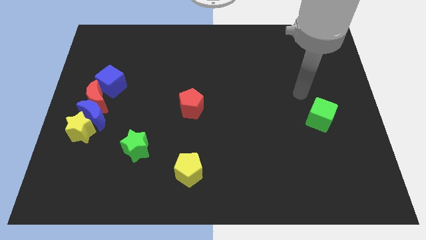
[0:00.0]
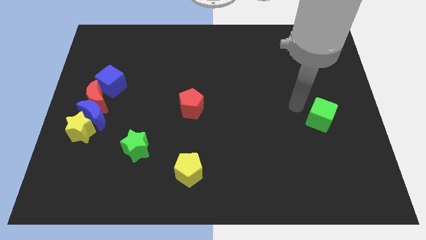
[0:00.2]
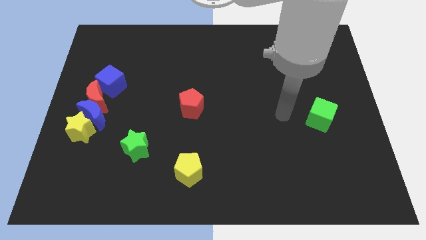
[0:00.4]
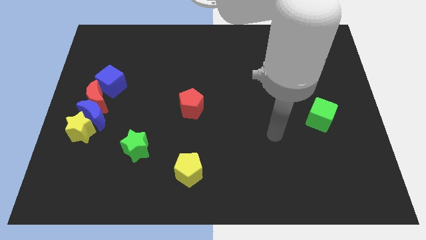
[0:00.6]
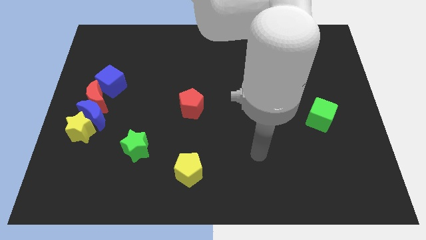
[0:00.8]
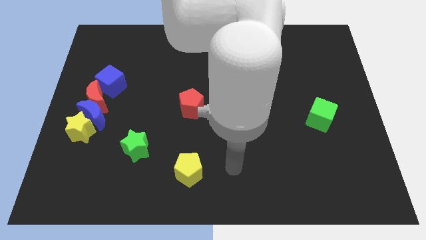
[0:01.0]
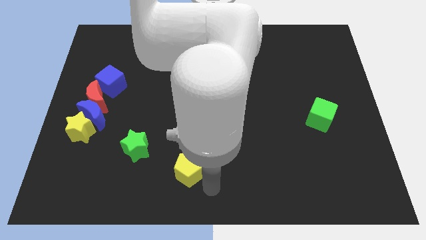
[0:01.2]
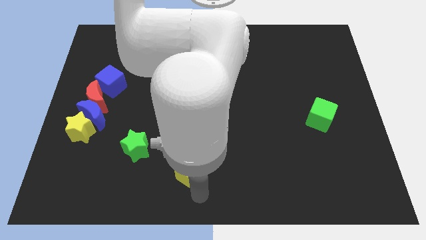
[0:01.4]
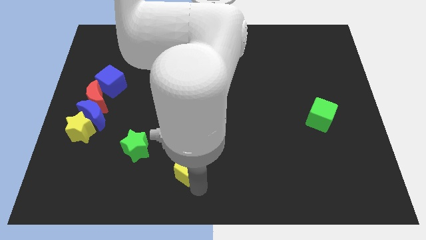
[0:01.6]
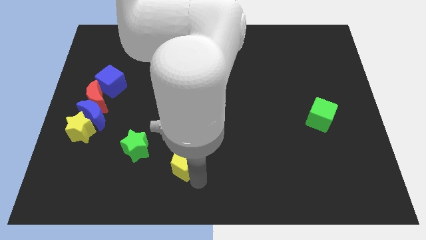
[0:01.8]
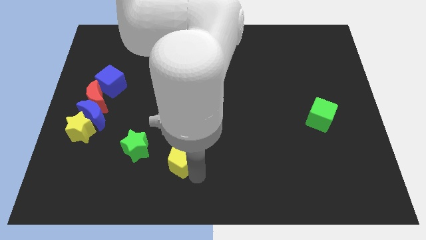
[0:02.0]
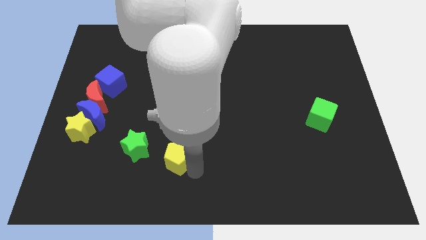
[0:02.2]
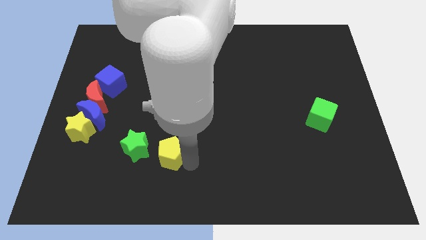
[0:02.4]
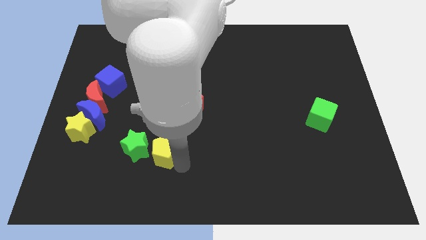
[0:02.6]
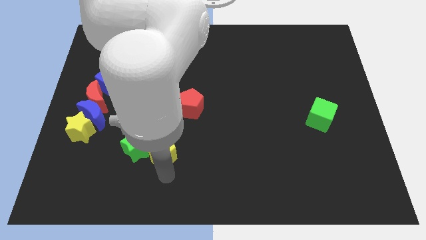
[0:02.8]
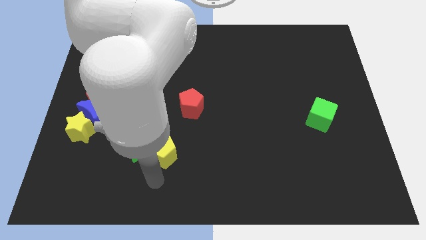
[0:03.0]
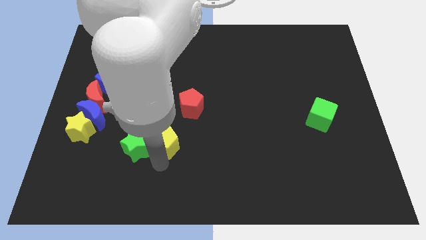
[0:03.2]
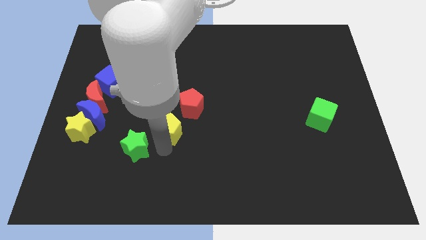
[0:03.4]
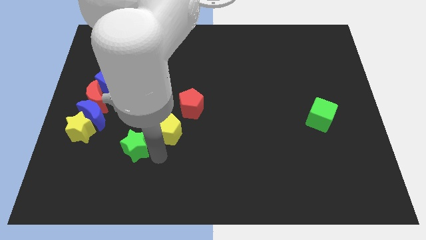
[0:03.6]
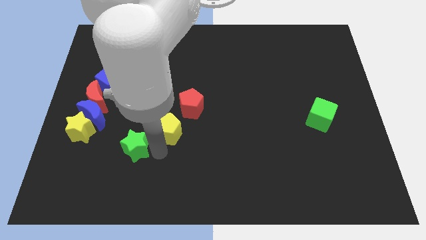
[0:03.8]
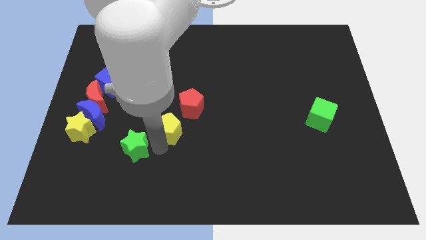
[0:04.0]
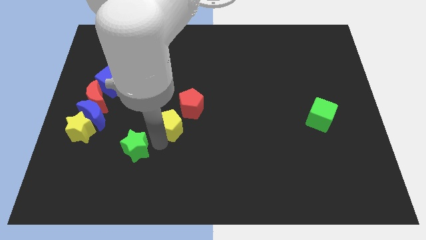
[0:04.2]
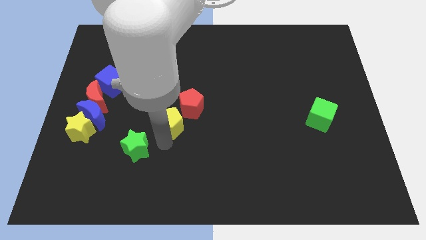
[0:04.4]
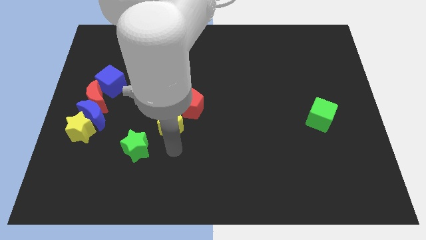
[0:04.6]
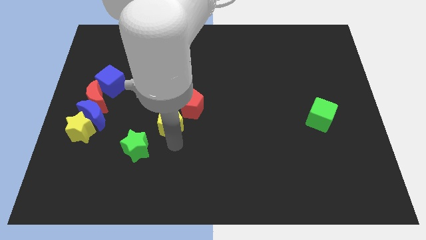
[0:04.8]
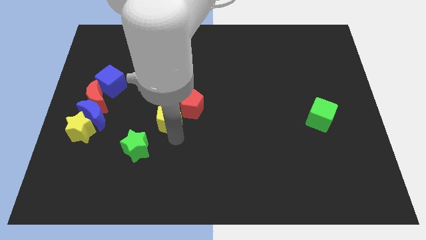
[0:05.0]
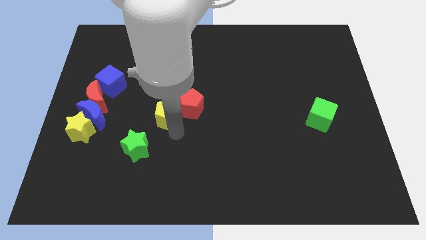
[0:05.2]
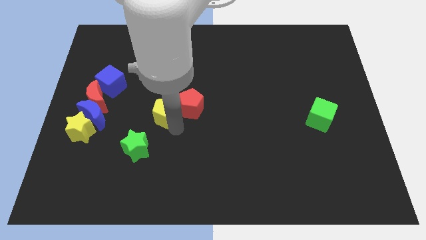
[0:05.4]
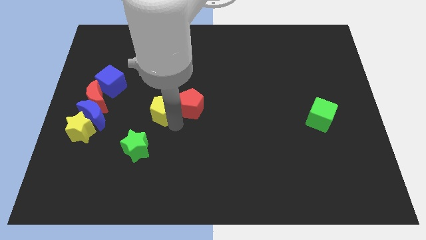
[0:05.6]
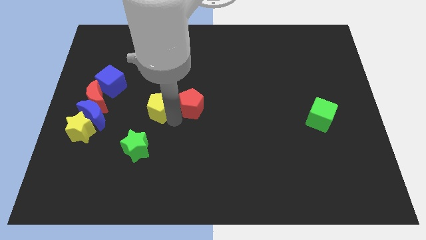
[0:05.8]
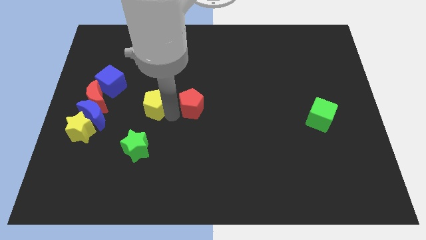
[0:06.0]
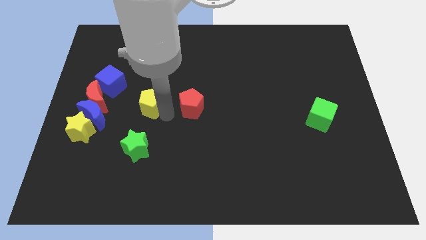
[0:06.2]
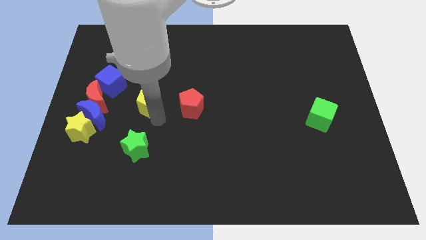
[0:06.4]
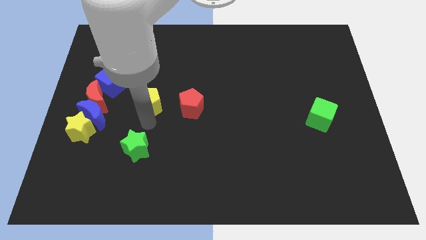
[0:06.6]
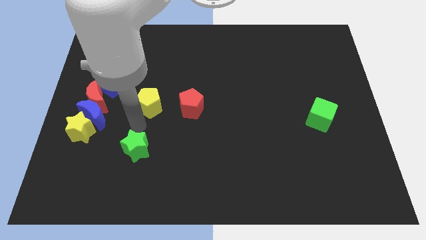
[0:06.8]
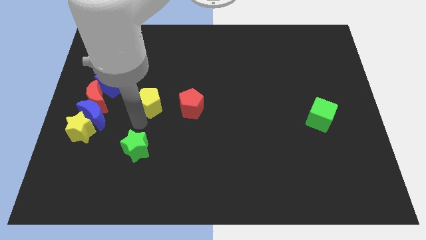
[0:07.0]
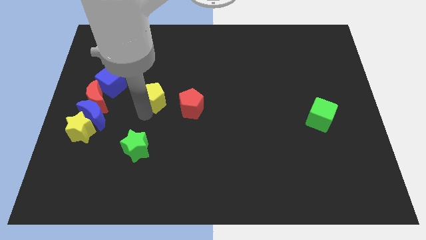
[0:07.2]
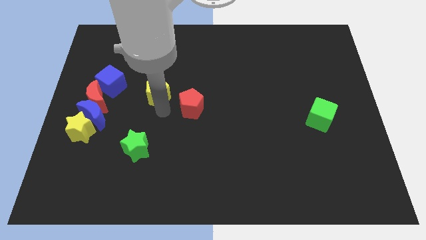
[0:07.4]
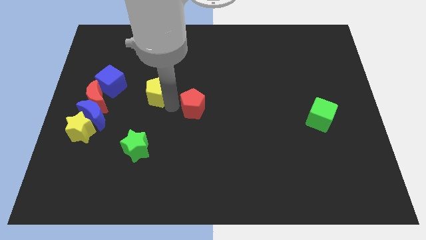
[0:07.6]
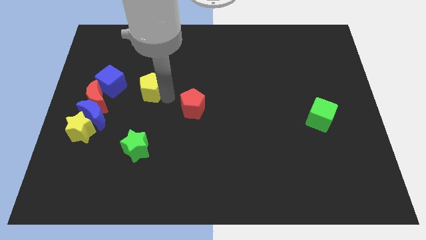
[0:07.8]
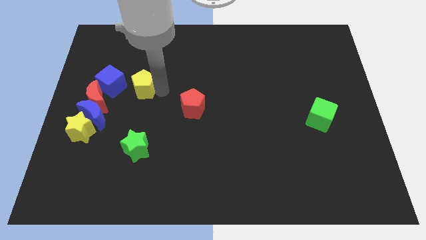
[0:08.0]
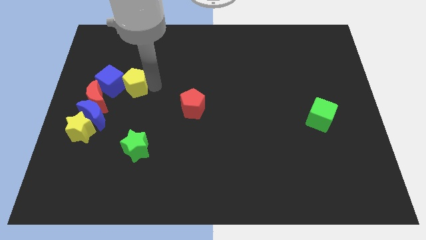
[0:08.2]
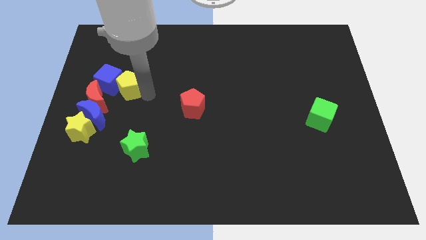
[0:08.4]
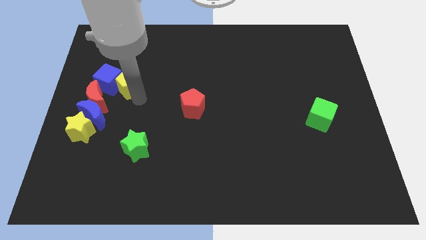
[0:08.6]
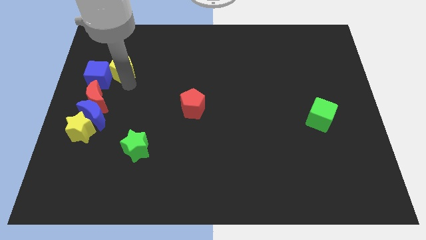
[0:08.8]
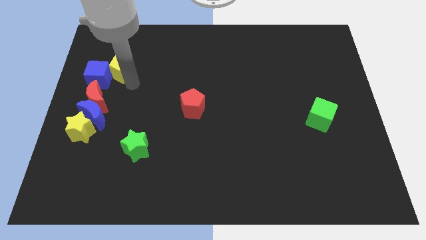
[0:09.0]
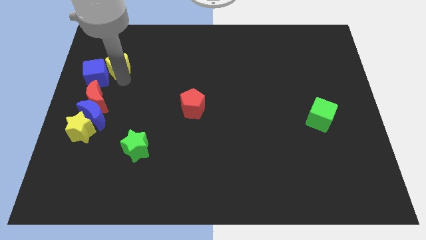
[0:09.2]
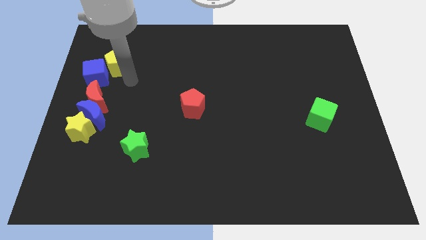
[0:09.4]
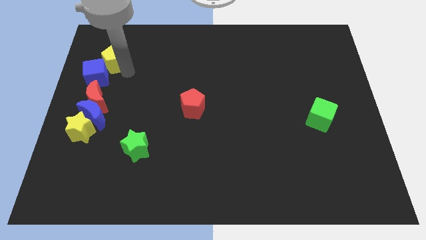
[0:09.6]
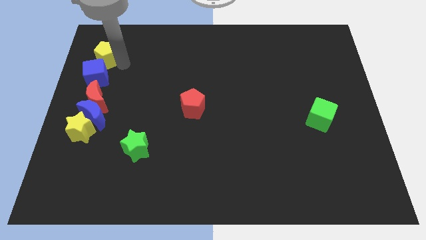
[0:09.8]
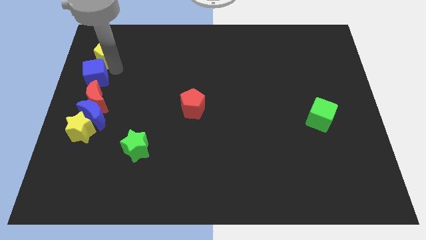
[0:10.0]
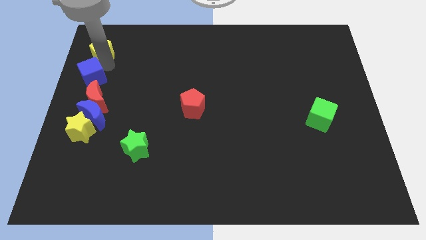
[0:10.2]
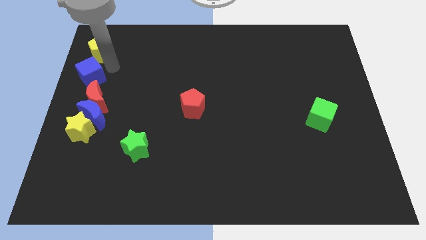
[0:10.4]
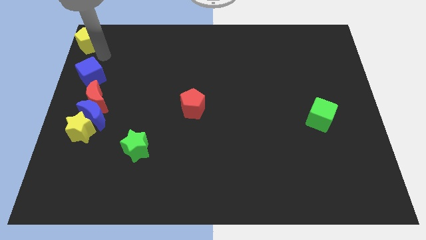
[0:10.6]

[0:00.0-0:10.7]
slide the yellow pentagon to the top left

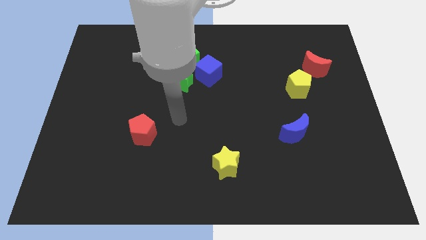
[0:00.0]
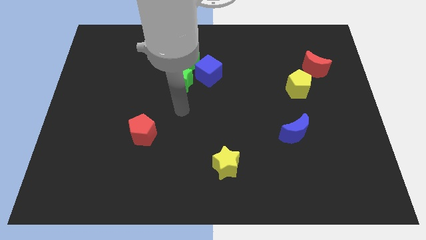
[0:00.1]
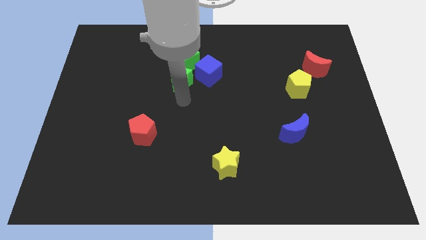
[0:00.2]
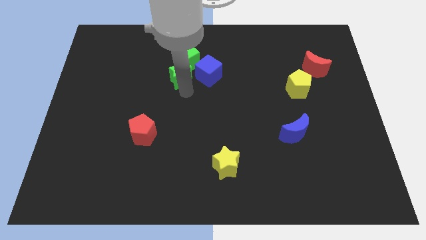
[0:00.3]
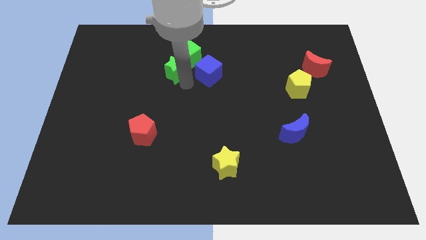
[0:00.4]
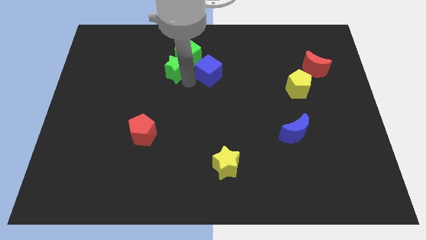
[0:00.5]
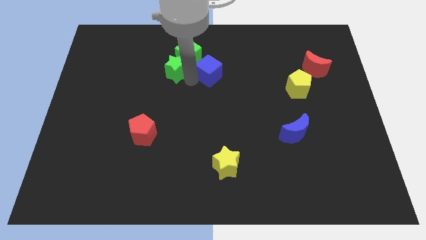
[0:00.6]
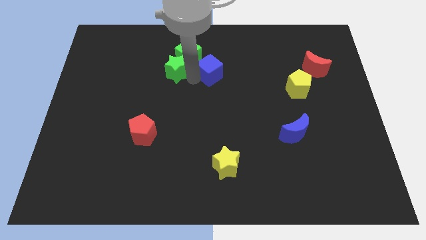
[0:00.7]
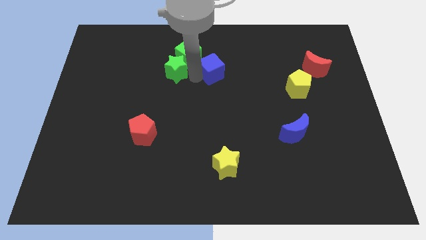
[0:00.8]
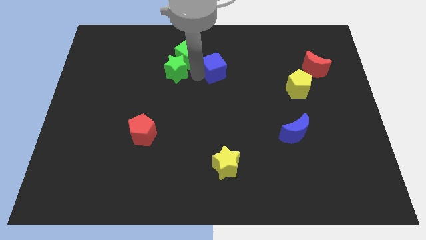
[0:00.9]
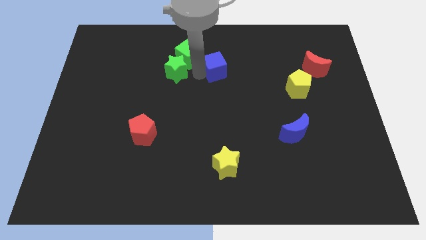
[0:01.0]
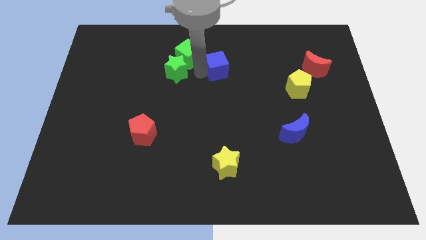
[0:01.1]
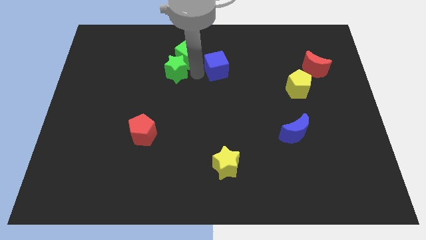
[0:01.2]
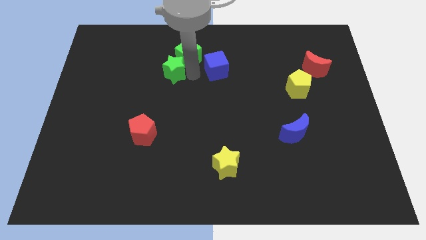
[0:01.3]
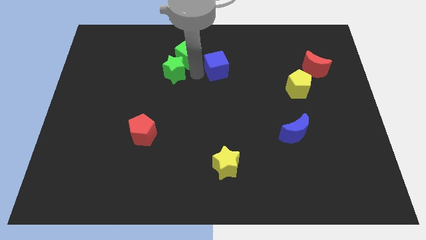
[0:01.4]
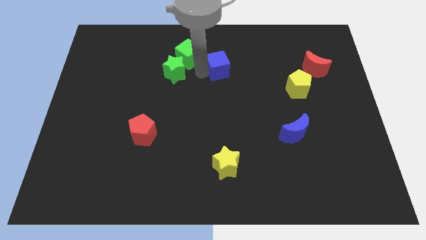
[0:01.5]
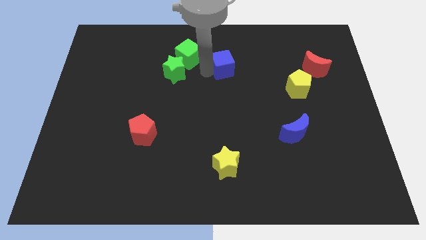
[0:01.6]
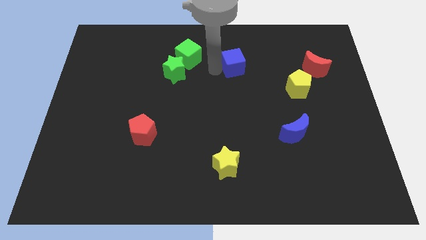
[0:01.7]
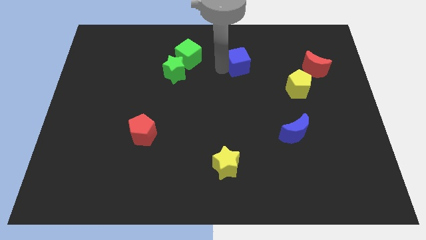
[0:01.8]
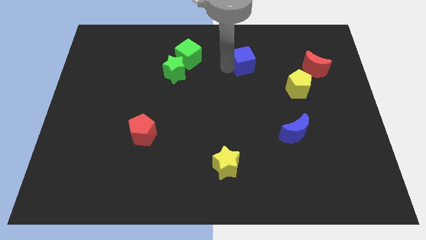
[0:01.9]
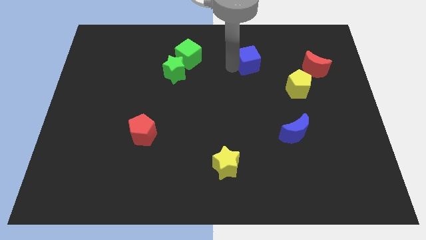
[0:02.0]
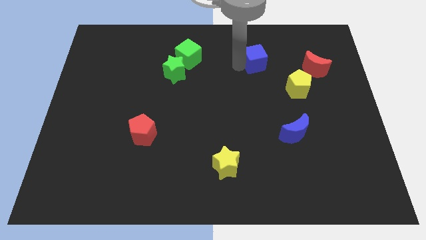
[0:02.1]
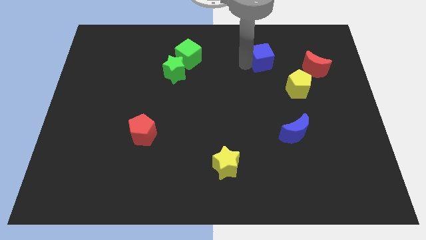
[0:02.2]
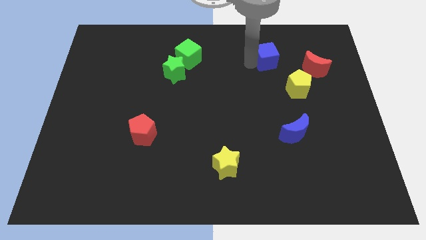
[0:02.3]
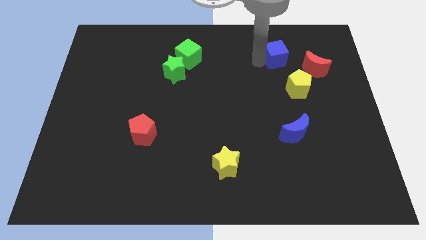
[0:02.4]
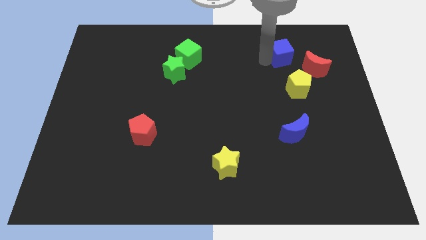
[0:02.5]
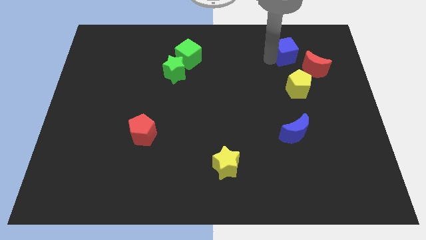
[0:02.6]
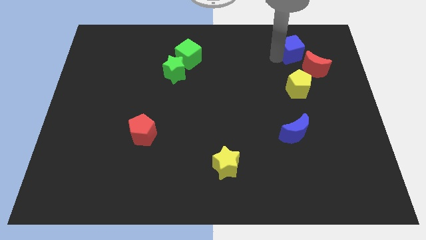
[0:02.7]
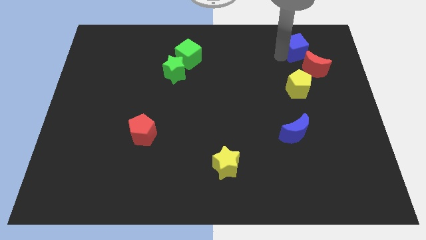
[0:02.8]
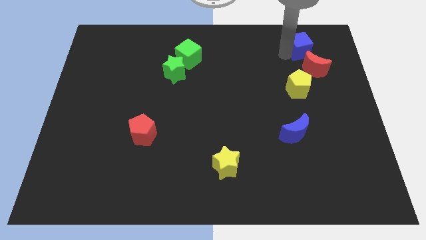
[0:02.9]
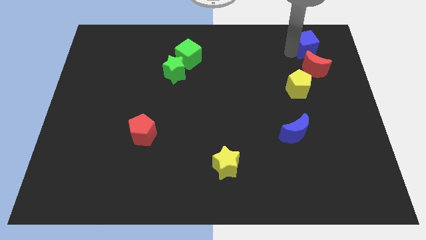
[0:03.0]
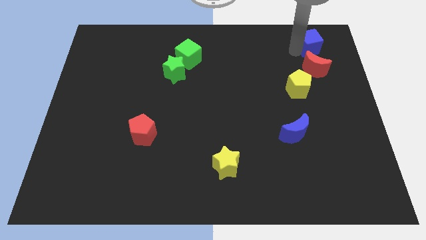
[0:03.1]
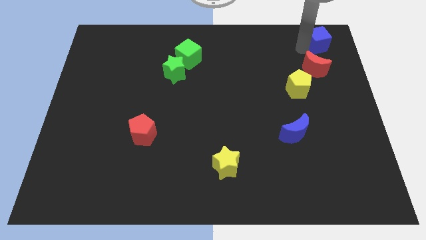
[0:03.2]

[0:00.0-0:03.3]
push the blue cube to the top right of the board
